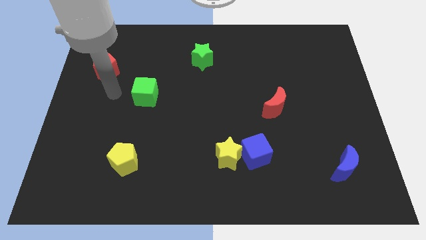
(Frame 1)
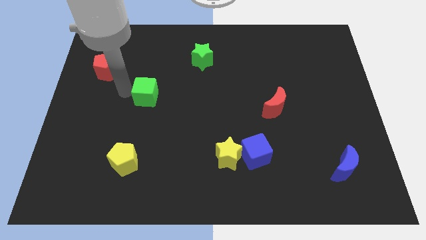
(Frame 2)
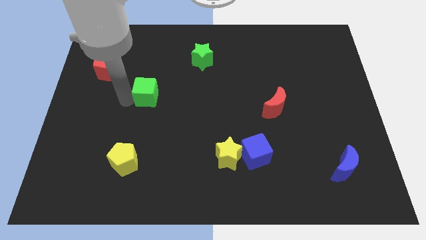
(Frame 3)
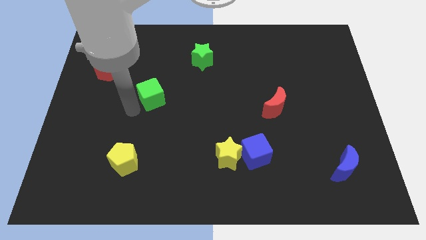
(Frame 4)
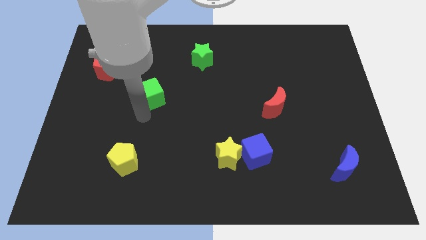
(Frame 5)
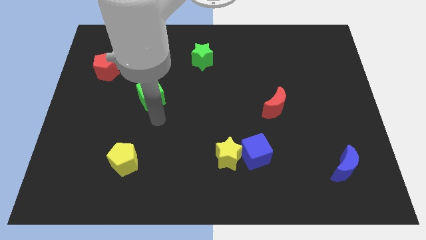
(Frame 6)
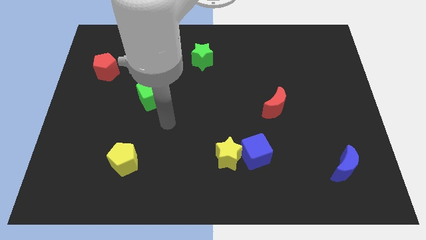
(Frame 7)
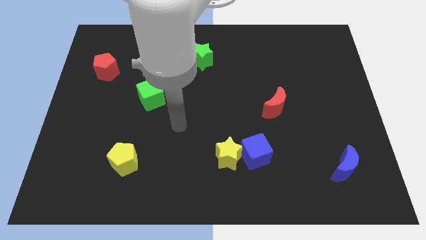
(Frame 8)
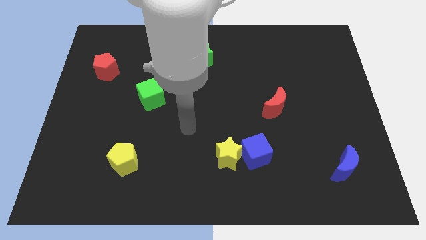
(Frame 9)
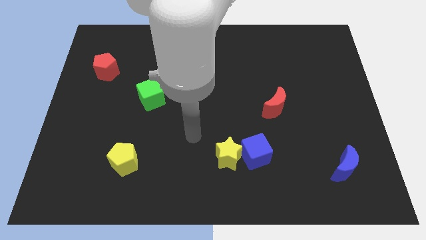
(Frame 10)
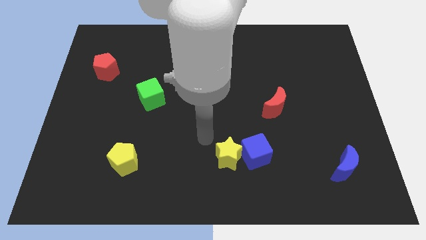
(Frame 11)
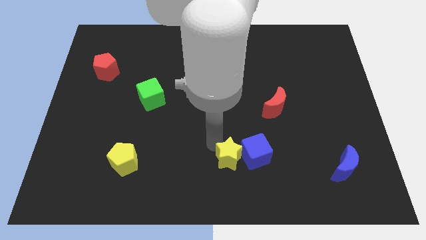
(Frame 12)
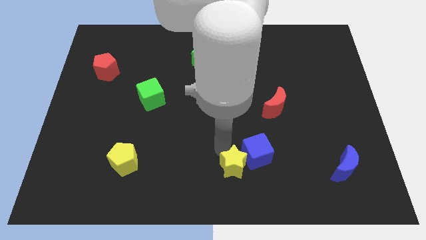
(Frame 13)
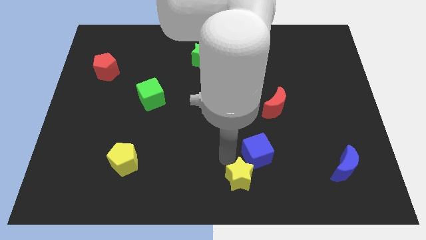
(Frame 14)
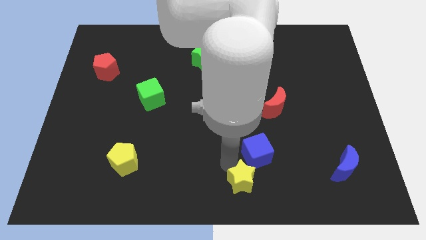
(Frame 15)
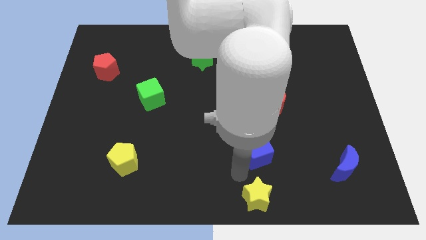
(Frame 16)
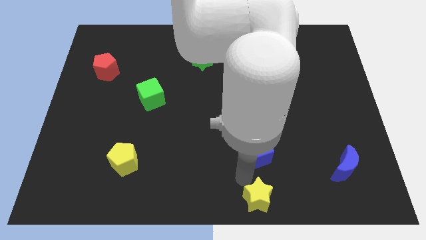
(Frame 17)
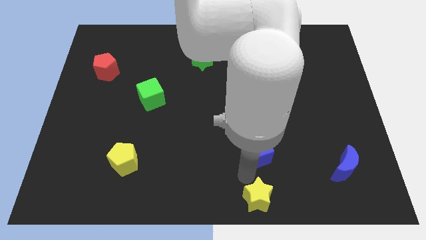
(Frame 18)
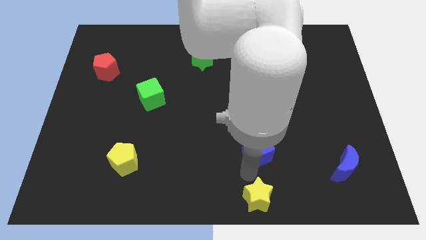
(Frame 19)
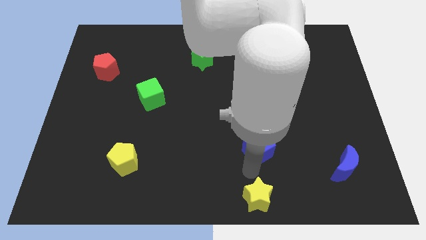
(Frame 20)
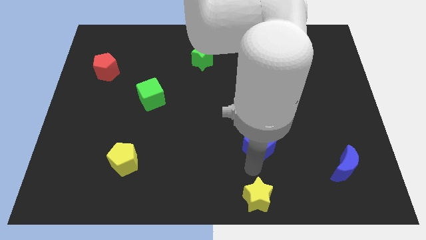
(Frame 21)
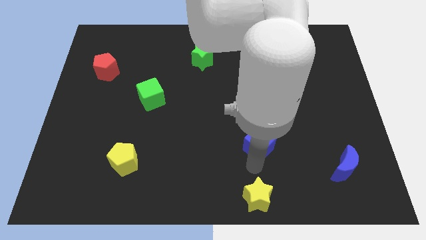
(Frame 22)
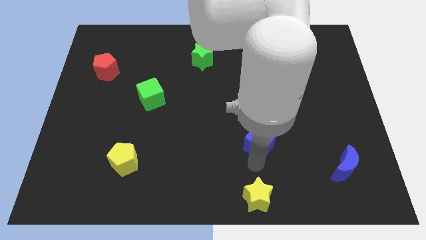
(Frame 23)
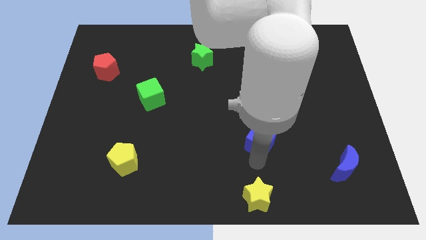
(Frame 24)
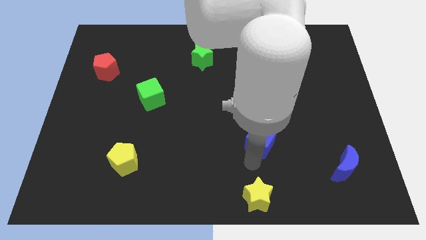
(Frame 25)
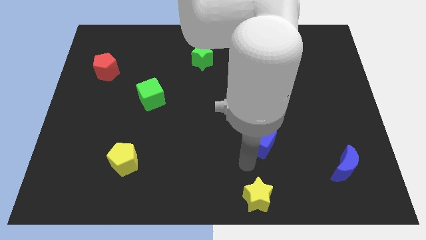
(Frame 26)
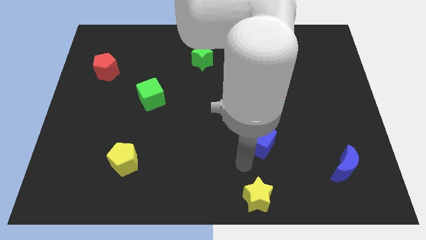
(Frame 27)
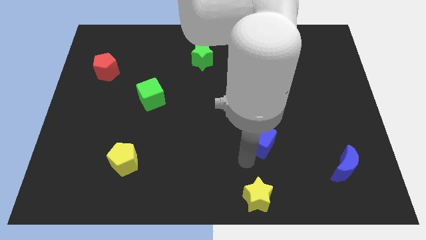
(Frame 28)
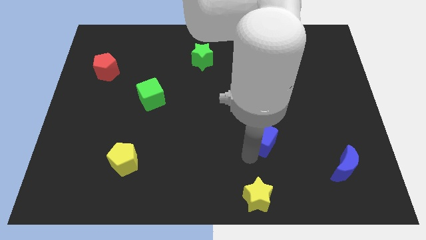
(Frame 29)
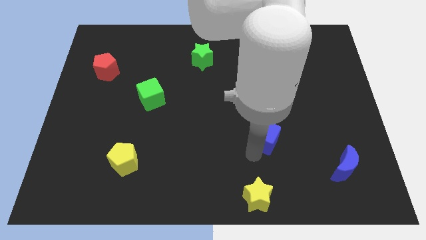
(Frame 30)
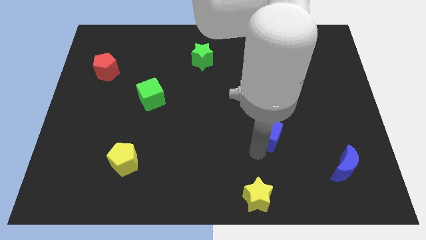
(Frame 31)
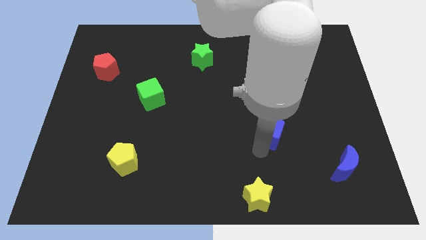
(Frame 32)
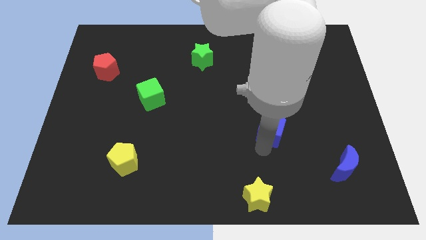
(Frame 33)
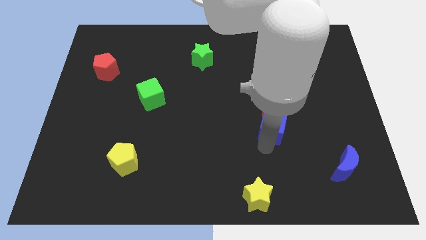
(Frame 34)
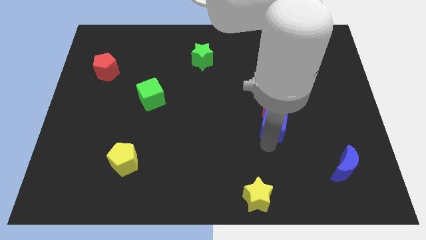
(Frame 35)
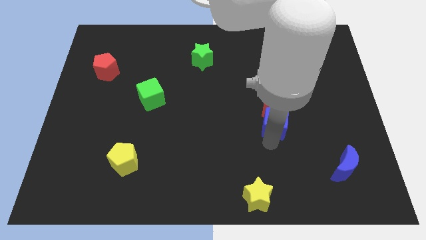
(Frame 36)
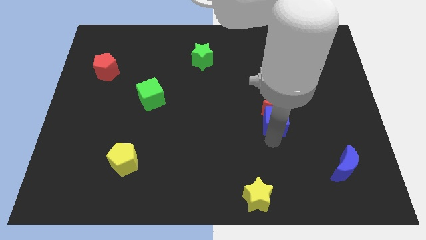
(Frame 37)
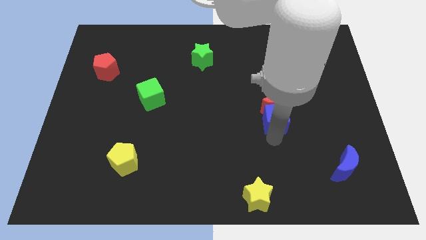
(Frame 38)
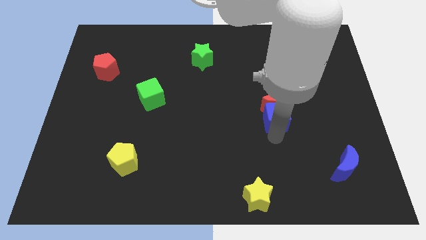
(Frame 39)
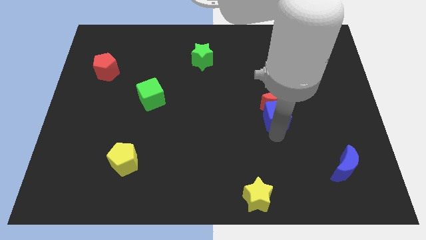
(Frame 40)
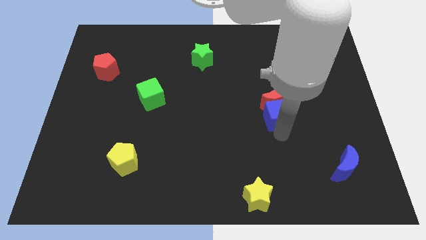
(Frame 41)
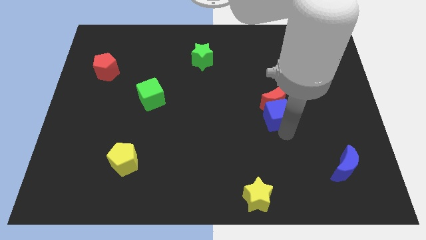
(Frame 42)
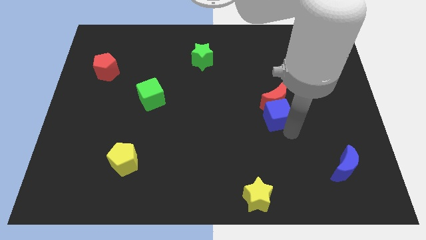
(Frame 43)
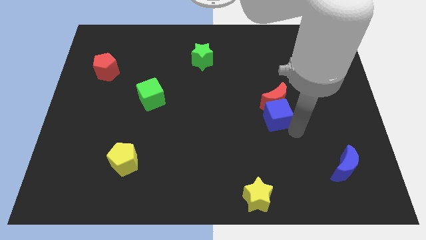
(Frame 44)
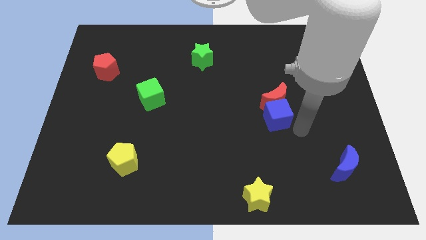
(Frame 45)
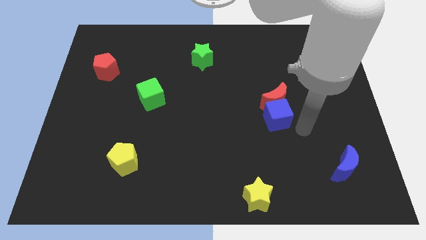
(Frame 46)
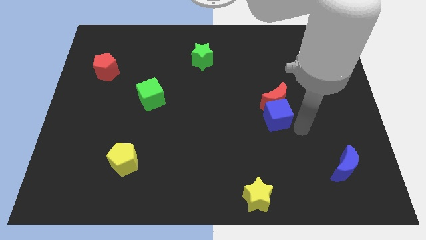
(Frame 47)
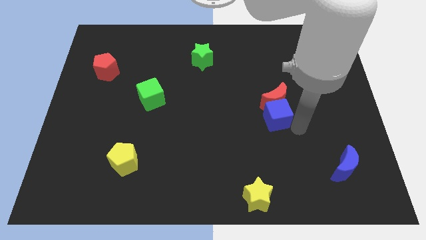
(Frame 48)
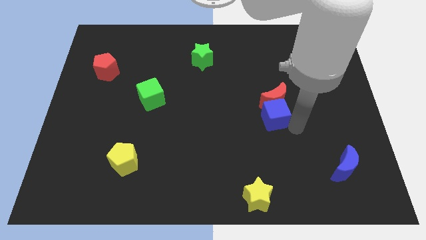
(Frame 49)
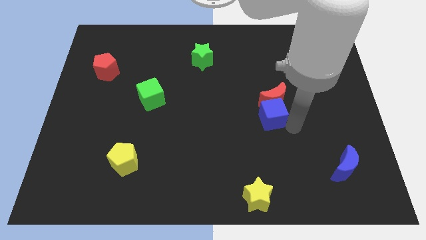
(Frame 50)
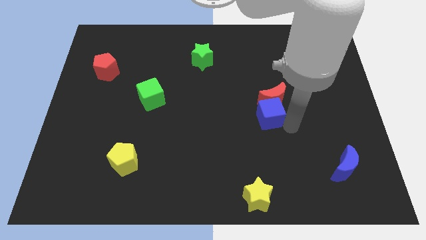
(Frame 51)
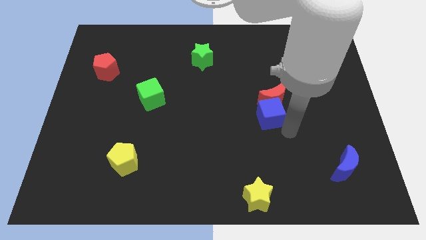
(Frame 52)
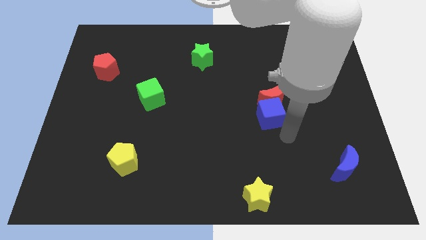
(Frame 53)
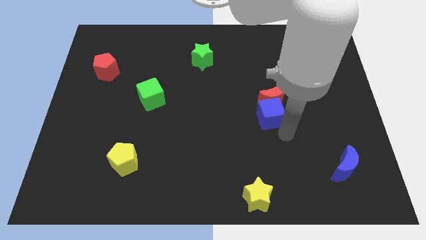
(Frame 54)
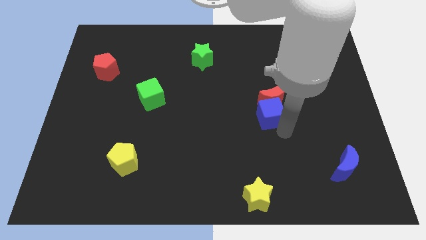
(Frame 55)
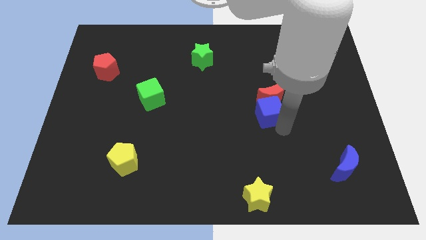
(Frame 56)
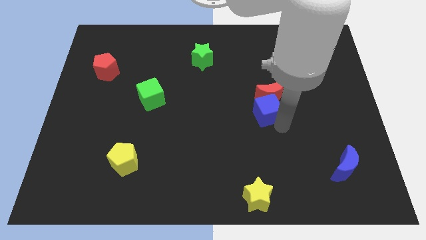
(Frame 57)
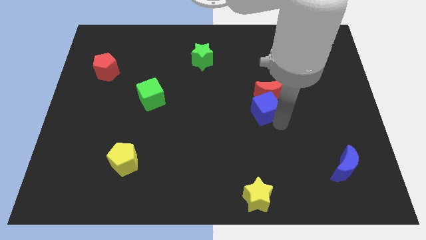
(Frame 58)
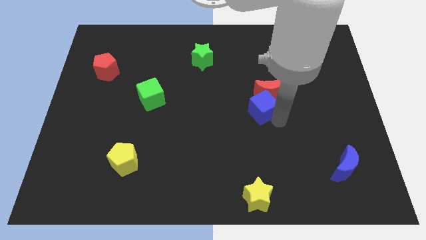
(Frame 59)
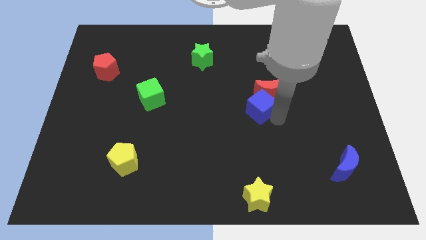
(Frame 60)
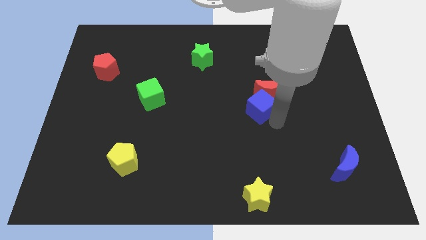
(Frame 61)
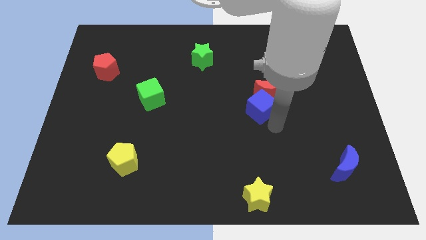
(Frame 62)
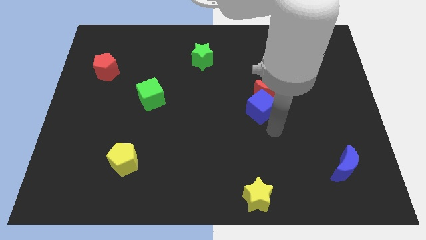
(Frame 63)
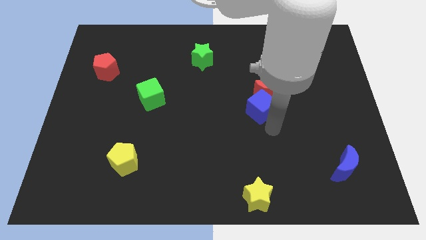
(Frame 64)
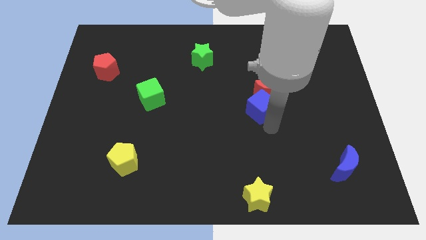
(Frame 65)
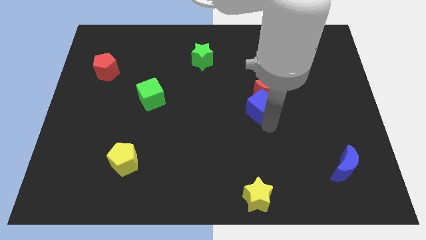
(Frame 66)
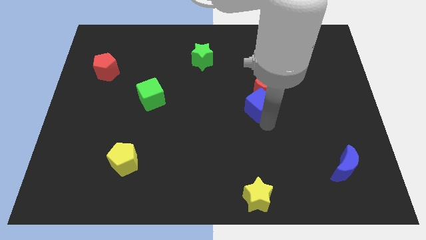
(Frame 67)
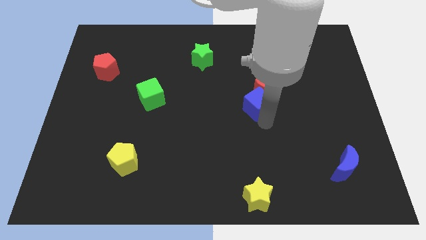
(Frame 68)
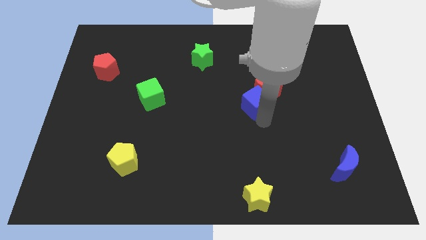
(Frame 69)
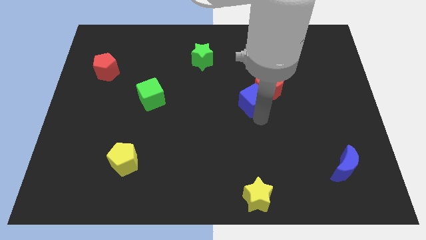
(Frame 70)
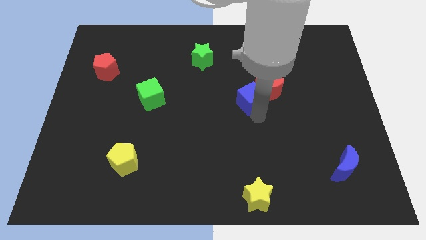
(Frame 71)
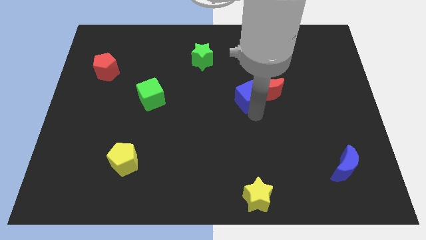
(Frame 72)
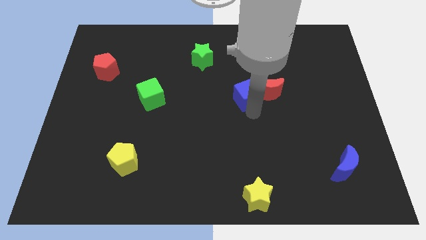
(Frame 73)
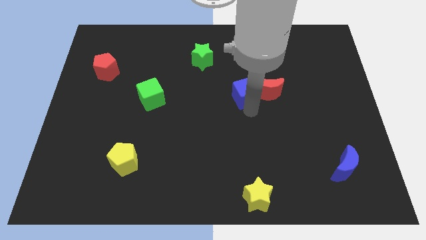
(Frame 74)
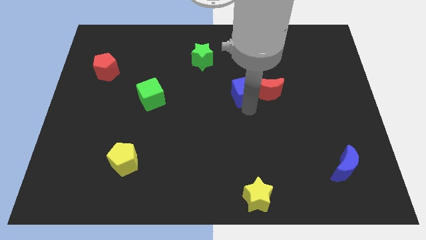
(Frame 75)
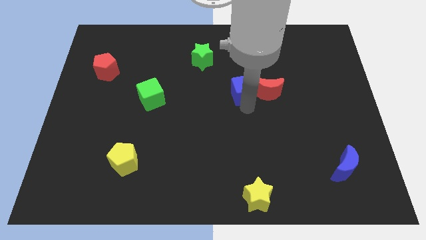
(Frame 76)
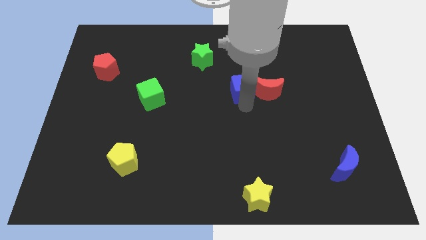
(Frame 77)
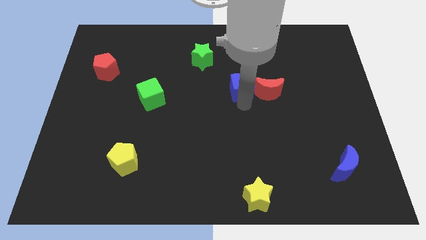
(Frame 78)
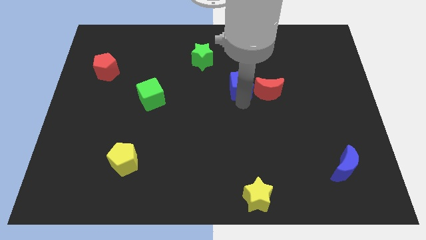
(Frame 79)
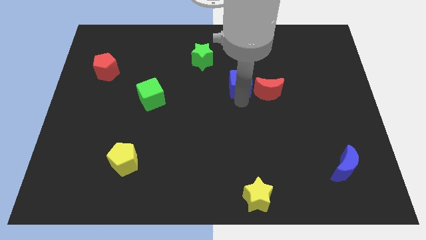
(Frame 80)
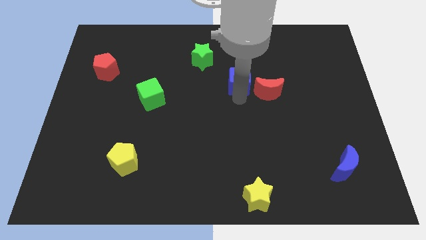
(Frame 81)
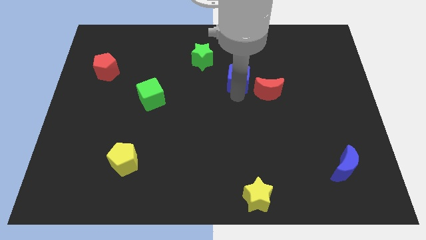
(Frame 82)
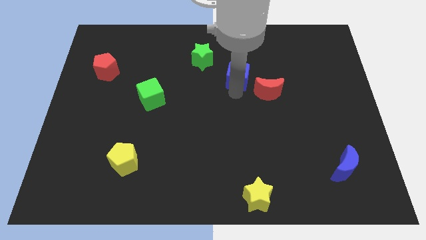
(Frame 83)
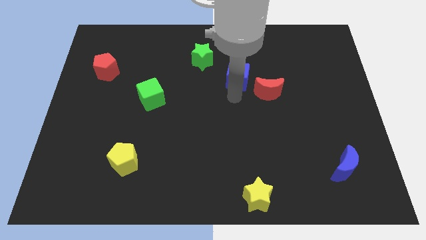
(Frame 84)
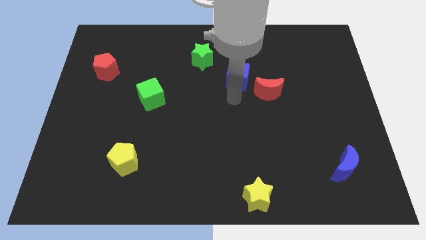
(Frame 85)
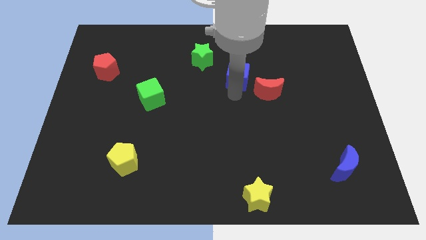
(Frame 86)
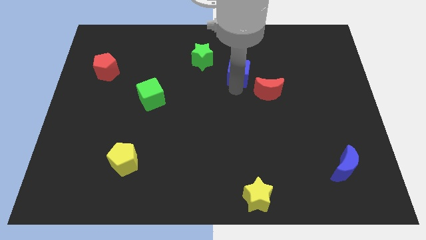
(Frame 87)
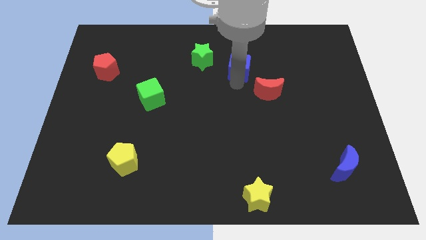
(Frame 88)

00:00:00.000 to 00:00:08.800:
slide the blue cube to the right of the green star
